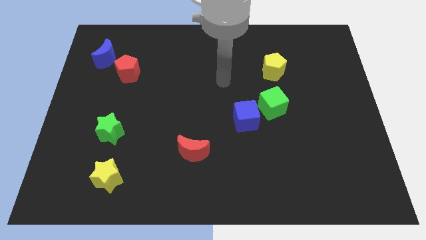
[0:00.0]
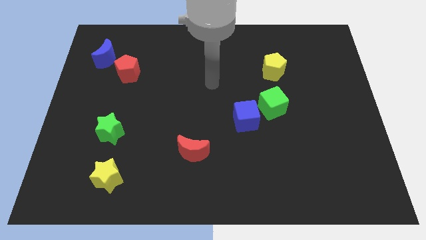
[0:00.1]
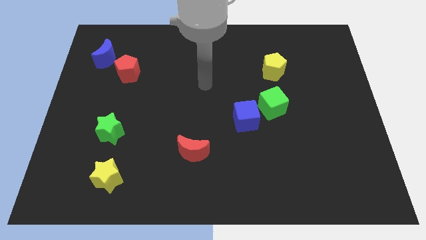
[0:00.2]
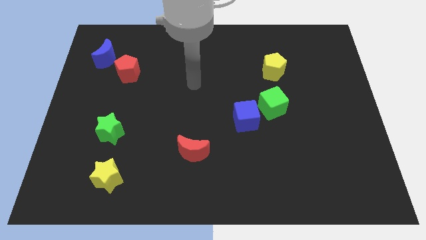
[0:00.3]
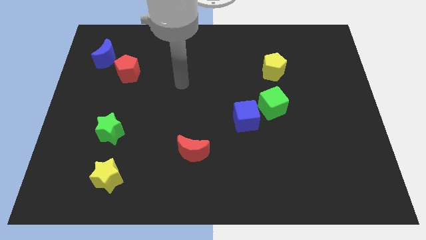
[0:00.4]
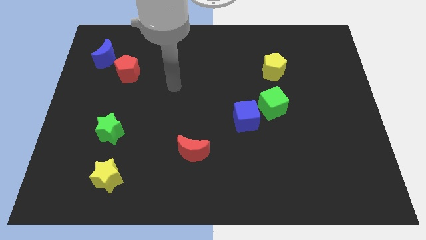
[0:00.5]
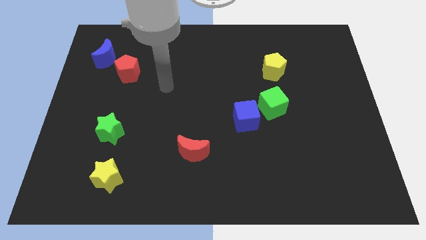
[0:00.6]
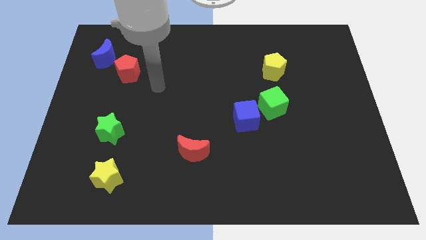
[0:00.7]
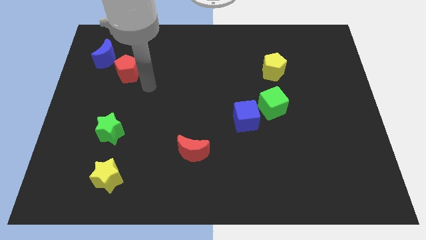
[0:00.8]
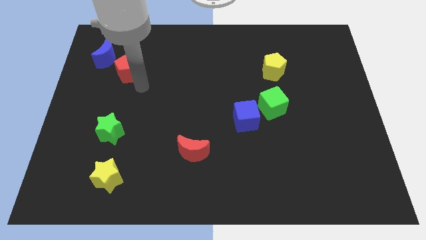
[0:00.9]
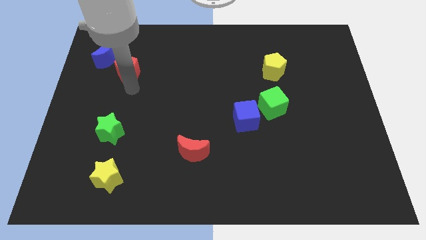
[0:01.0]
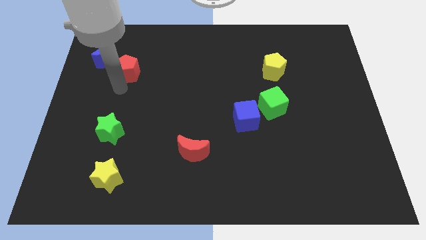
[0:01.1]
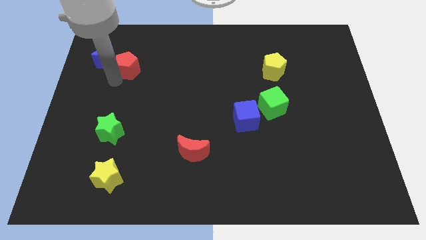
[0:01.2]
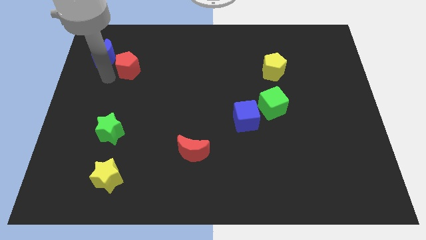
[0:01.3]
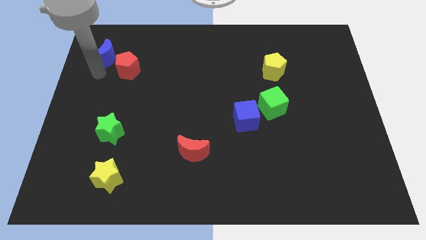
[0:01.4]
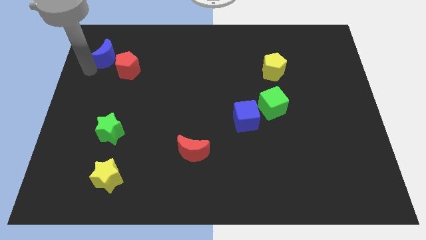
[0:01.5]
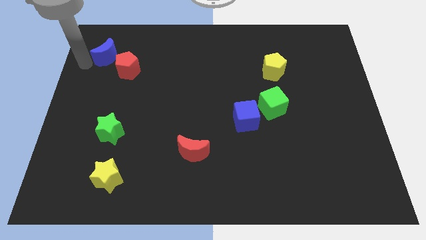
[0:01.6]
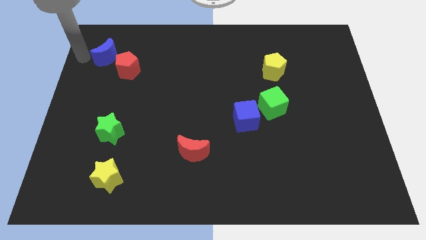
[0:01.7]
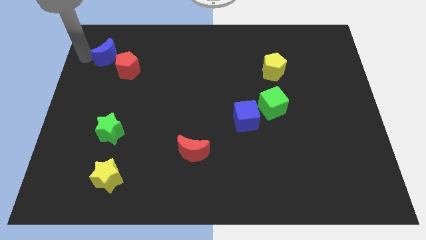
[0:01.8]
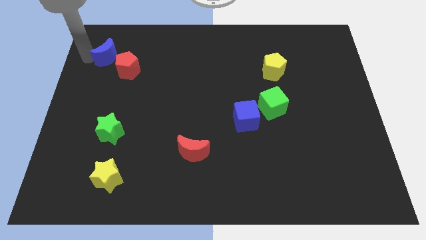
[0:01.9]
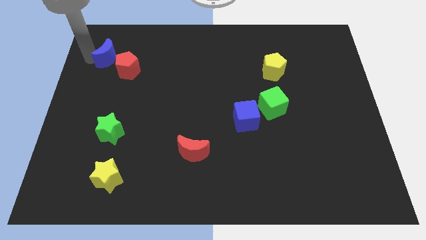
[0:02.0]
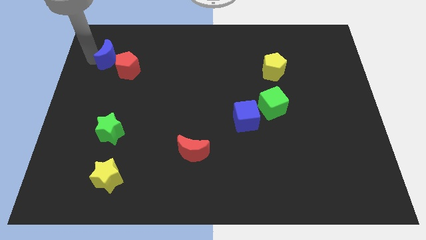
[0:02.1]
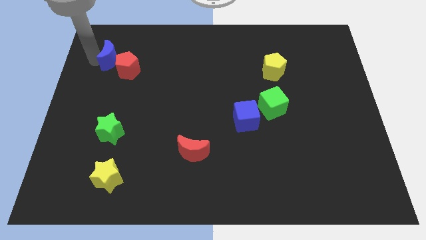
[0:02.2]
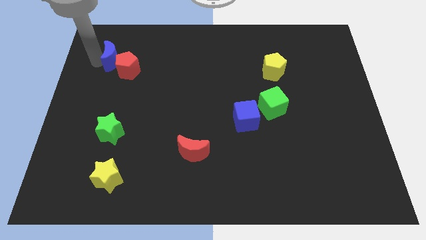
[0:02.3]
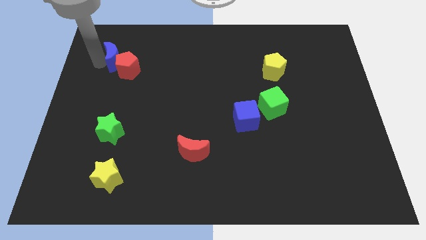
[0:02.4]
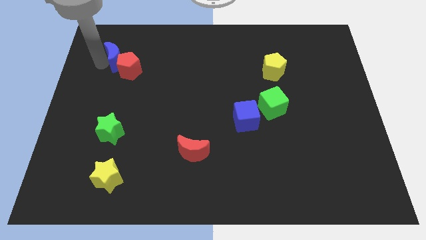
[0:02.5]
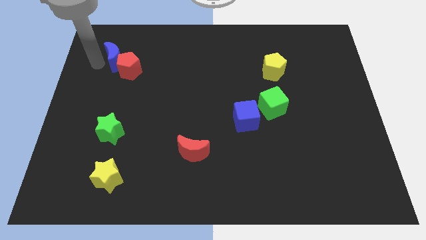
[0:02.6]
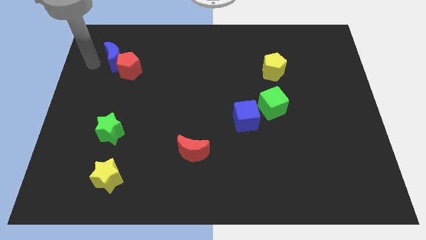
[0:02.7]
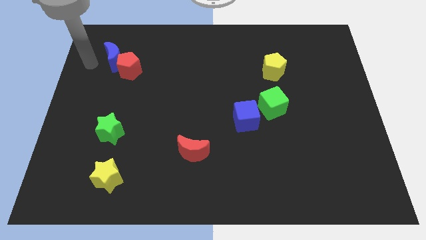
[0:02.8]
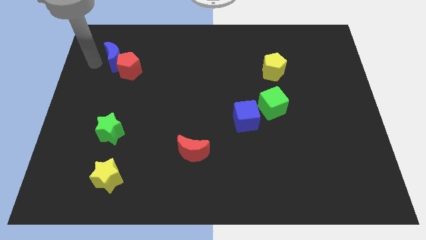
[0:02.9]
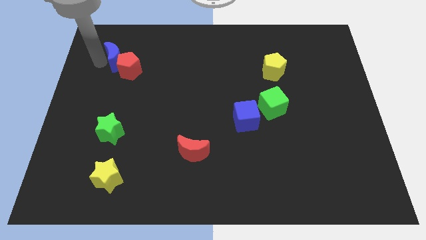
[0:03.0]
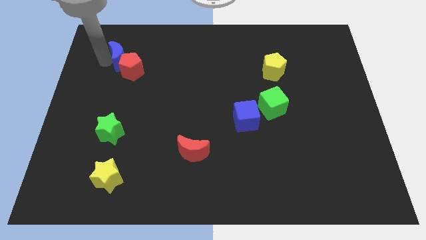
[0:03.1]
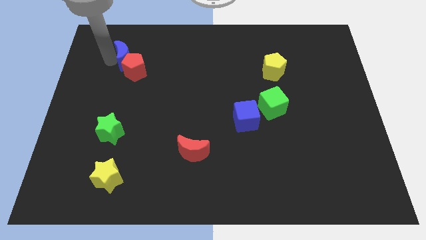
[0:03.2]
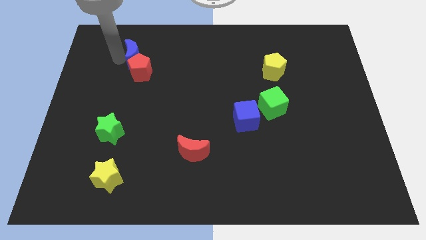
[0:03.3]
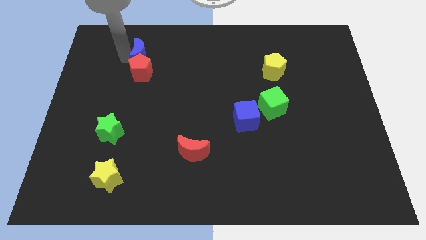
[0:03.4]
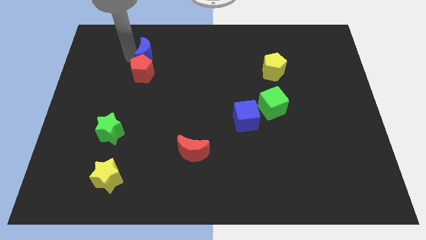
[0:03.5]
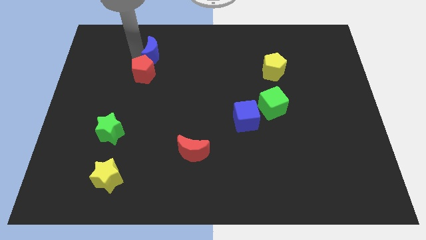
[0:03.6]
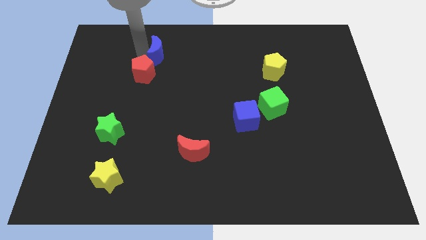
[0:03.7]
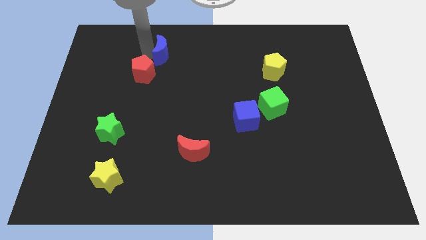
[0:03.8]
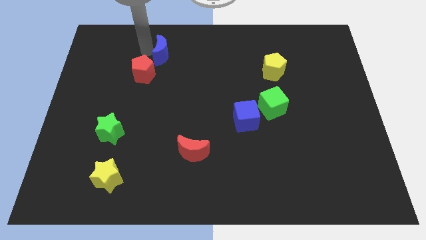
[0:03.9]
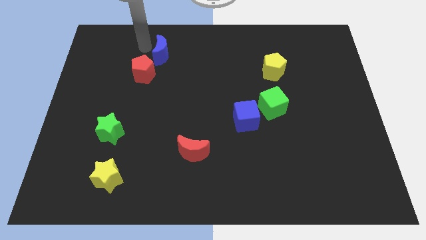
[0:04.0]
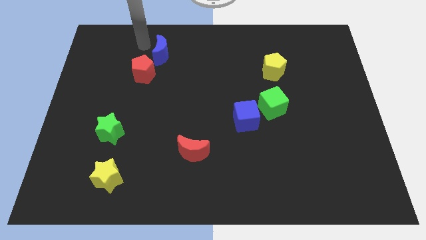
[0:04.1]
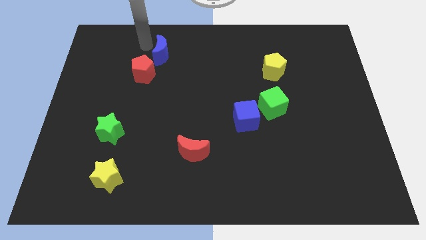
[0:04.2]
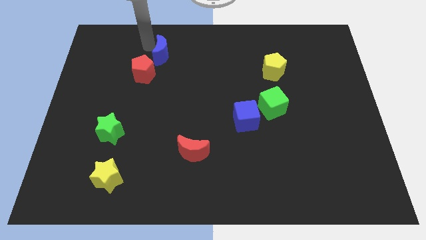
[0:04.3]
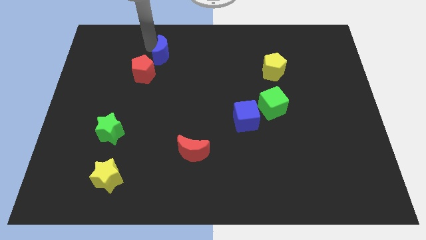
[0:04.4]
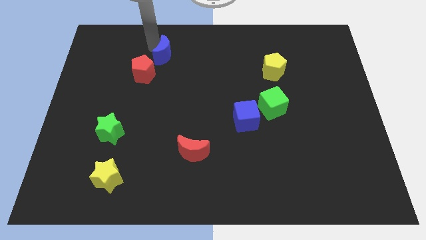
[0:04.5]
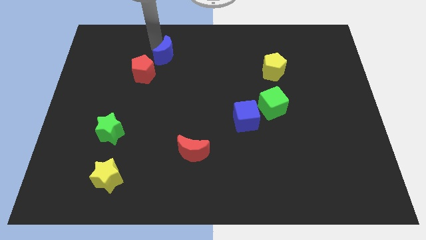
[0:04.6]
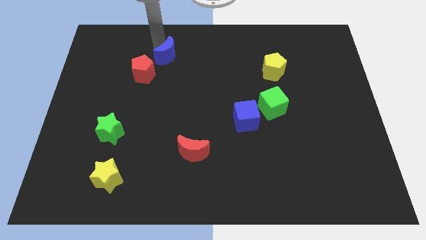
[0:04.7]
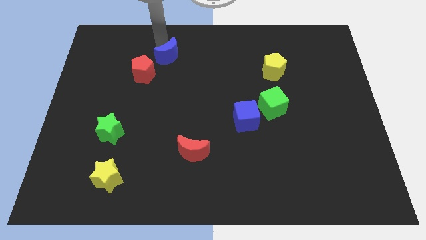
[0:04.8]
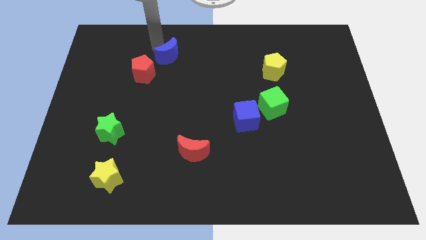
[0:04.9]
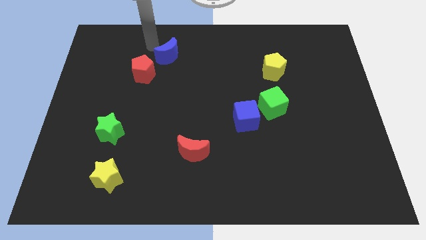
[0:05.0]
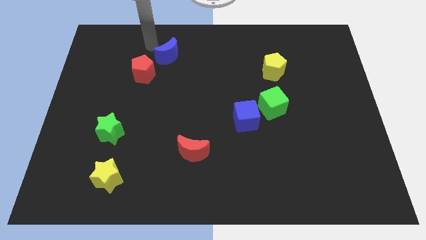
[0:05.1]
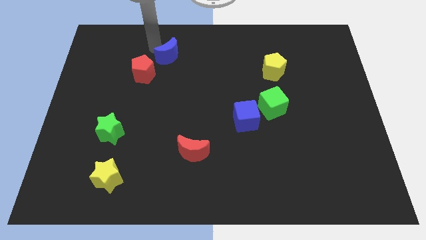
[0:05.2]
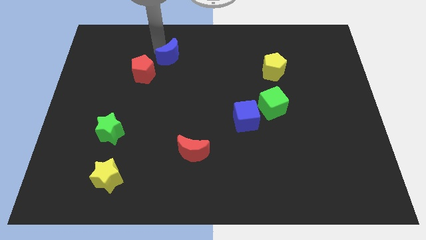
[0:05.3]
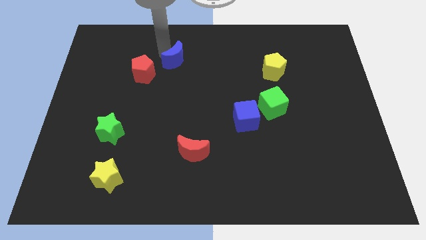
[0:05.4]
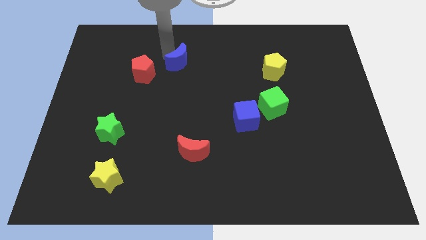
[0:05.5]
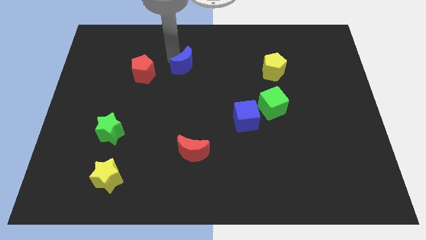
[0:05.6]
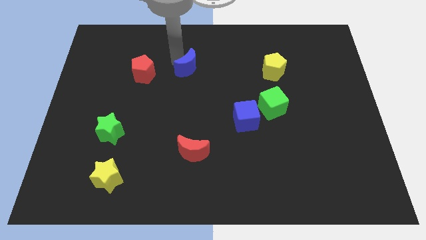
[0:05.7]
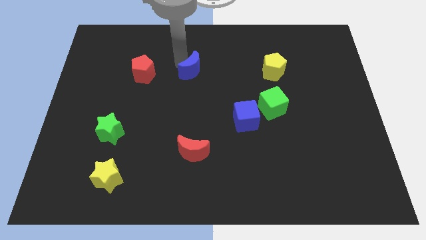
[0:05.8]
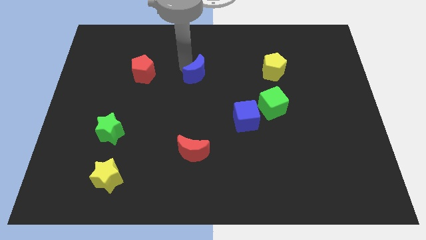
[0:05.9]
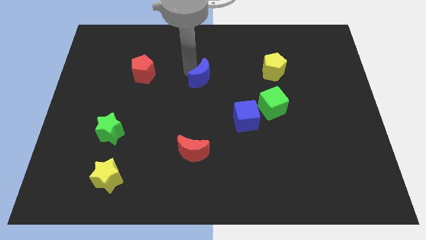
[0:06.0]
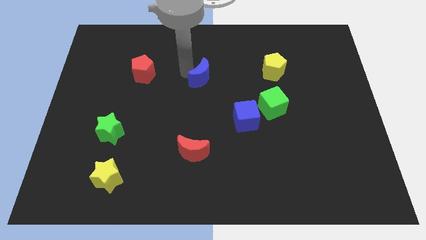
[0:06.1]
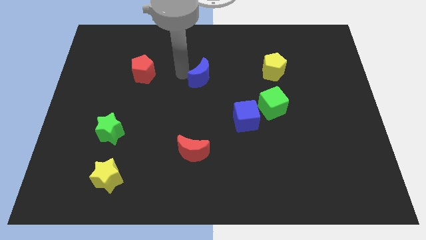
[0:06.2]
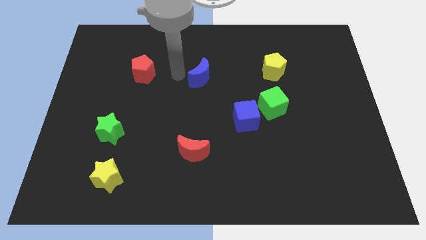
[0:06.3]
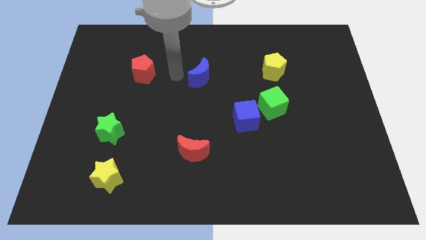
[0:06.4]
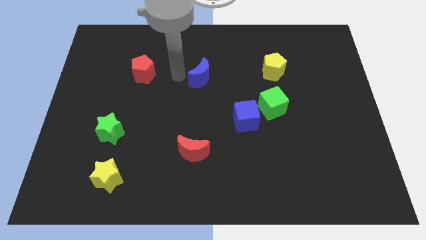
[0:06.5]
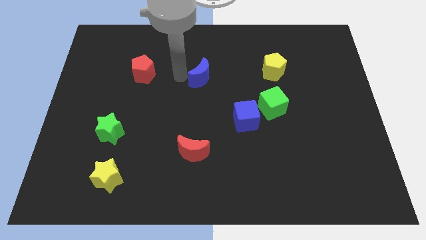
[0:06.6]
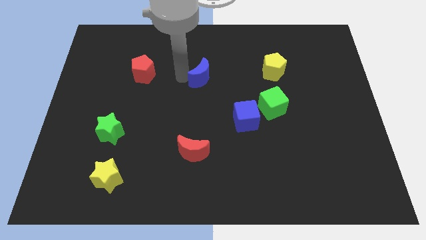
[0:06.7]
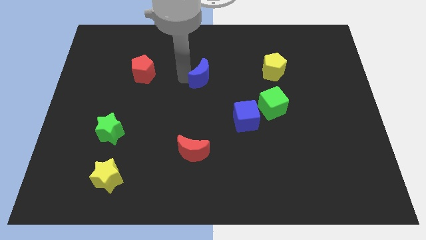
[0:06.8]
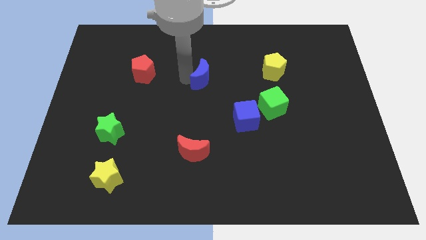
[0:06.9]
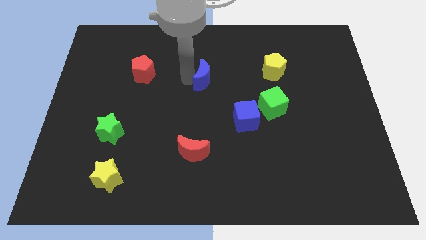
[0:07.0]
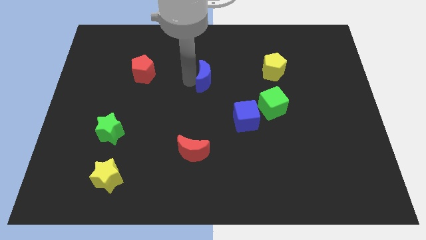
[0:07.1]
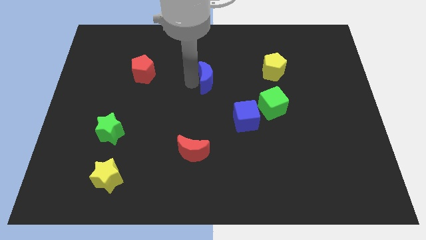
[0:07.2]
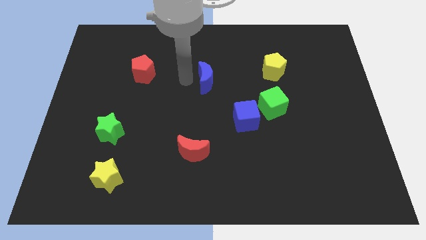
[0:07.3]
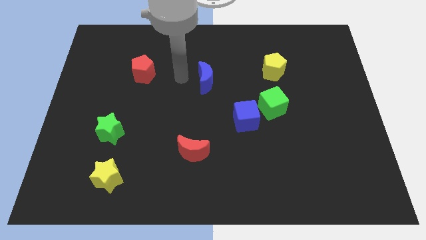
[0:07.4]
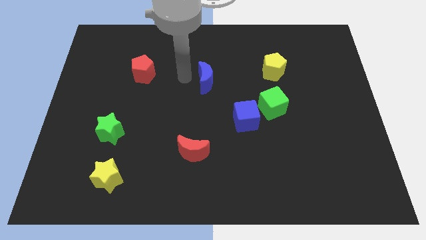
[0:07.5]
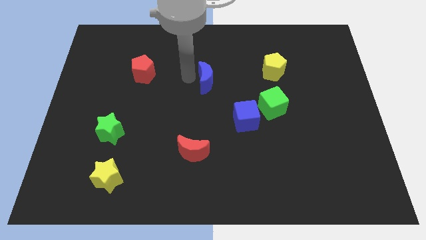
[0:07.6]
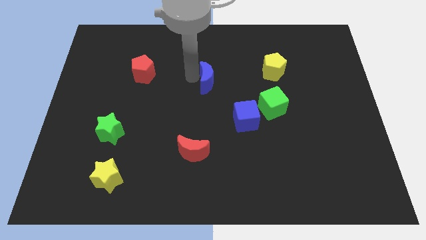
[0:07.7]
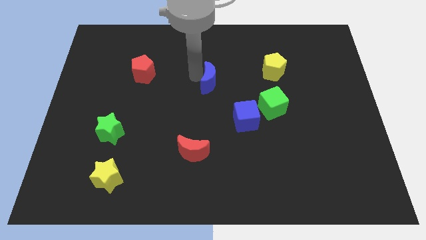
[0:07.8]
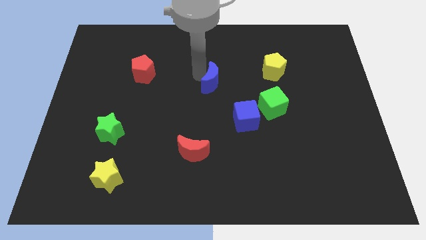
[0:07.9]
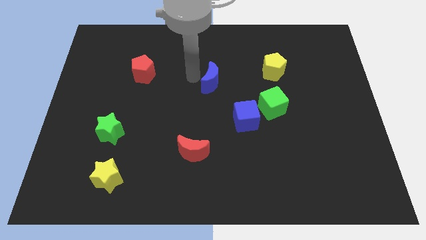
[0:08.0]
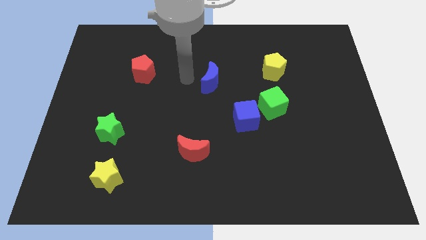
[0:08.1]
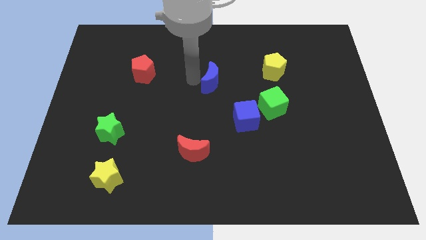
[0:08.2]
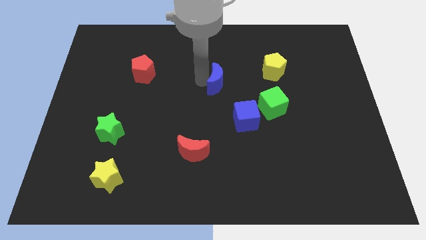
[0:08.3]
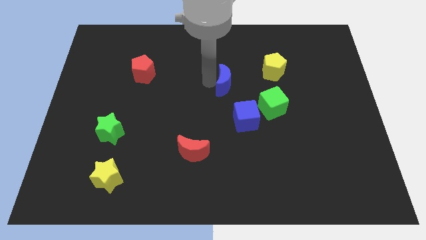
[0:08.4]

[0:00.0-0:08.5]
move the blue moon above the blue cube
